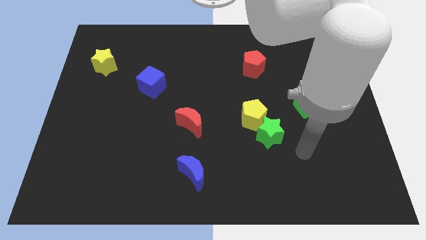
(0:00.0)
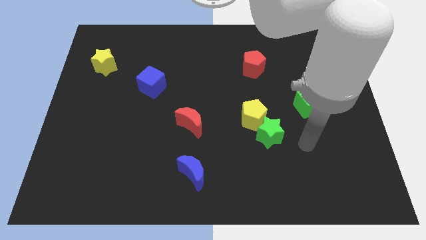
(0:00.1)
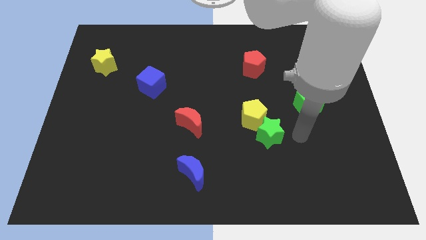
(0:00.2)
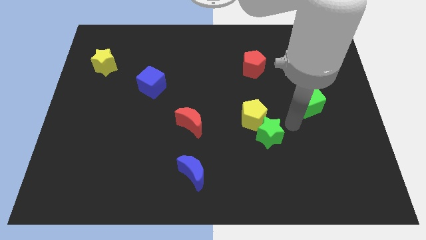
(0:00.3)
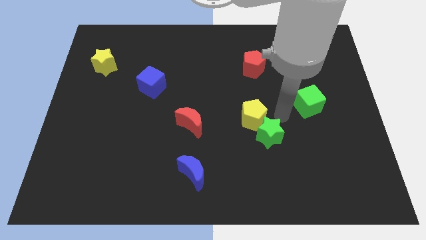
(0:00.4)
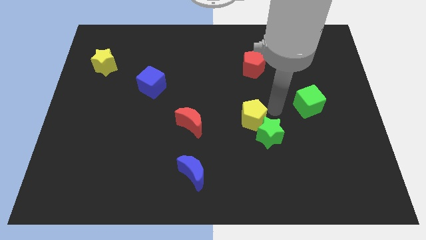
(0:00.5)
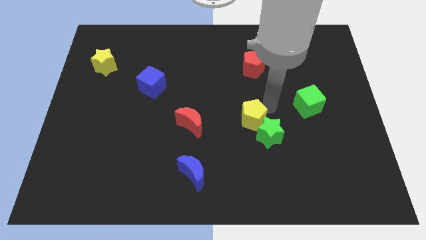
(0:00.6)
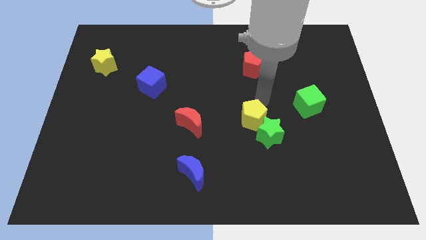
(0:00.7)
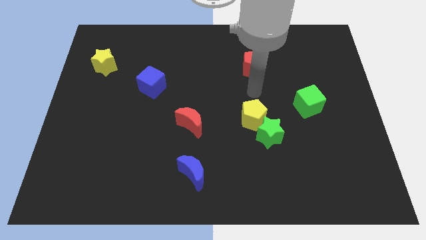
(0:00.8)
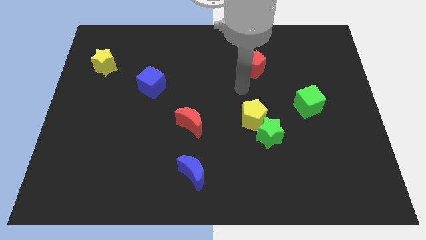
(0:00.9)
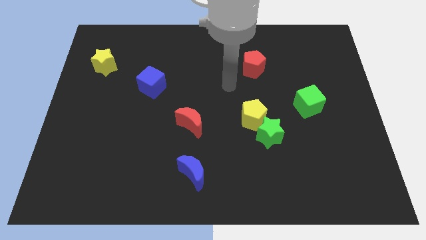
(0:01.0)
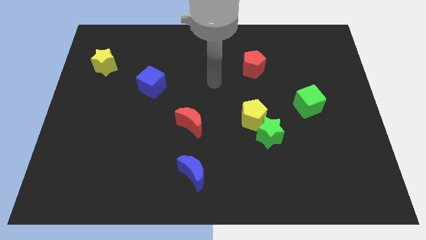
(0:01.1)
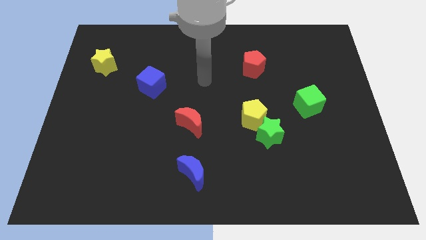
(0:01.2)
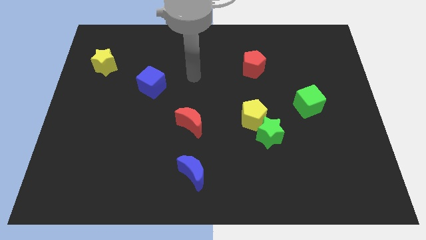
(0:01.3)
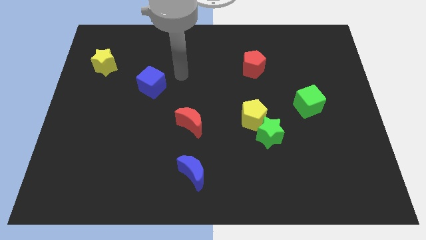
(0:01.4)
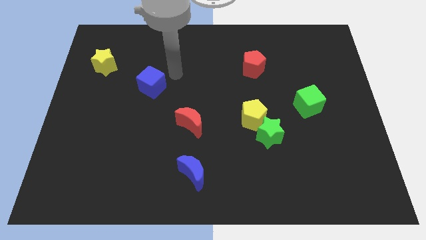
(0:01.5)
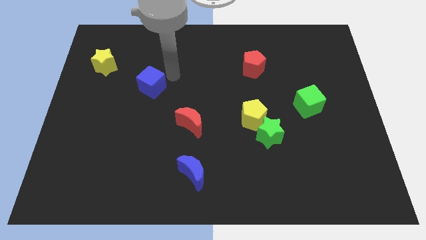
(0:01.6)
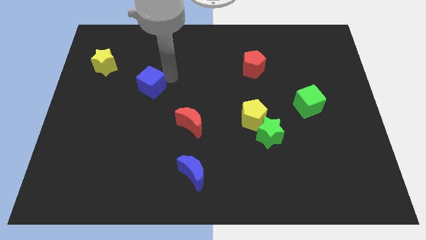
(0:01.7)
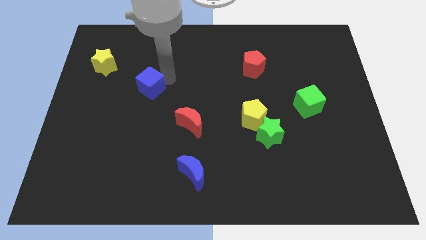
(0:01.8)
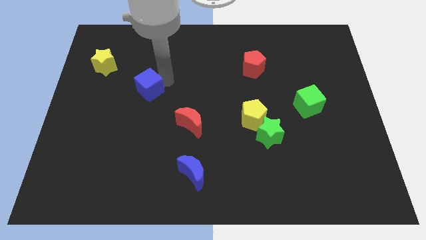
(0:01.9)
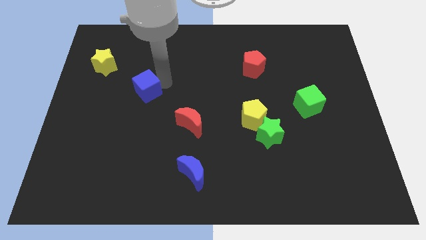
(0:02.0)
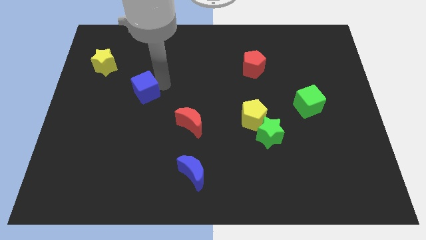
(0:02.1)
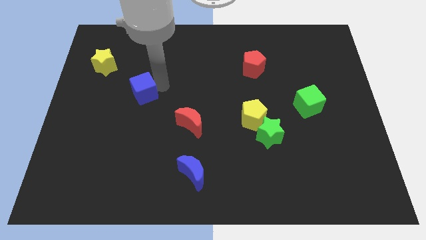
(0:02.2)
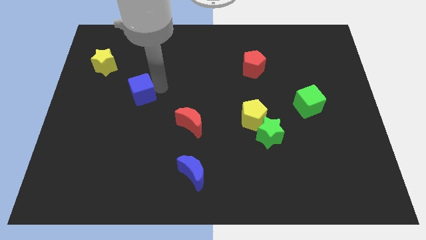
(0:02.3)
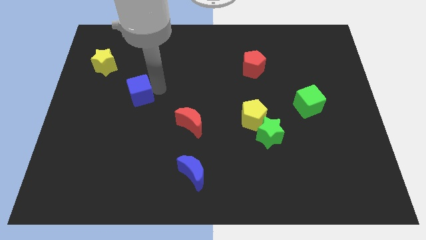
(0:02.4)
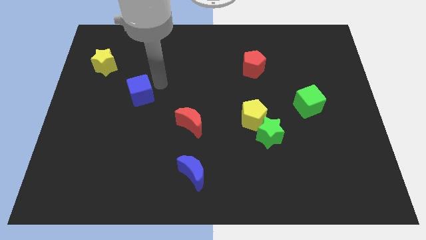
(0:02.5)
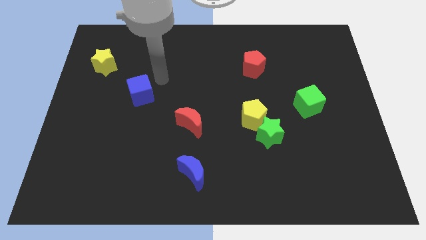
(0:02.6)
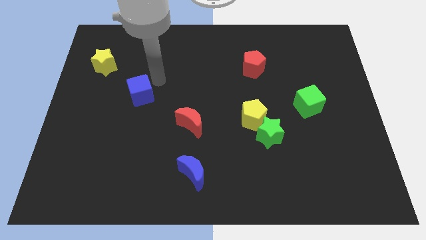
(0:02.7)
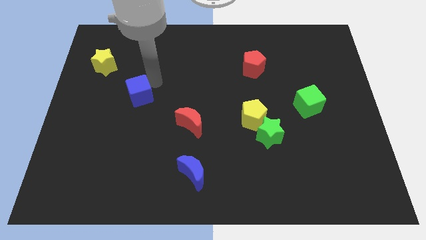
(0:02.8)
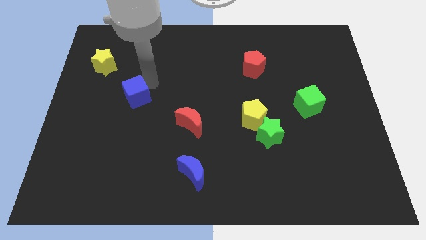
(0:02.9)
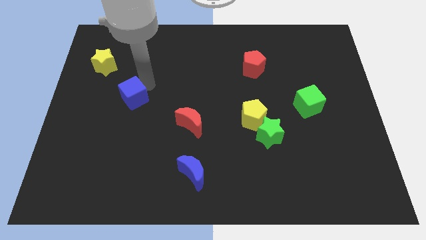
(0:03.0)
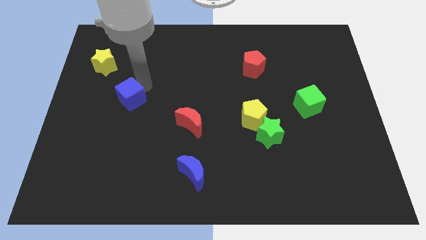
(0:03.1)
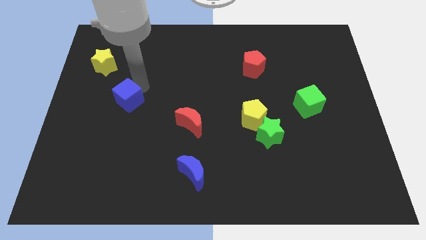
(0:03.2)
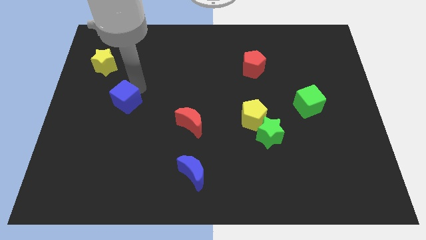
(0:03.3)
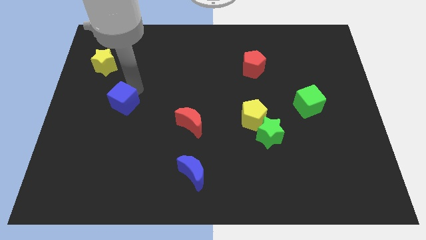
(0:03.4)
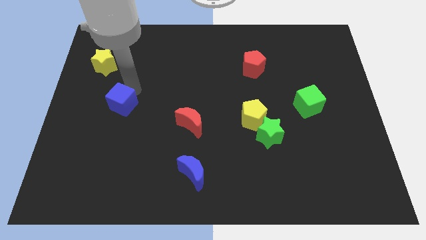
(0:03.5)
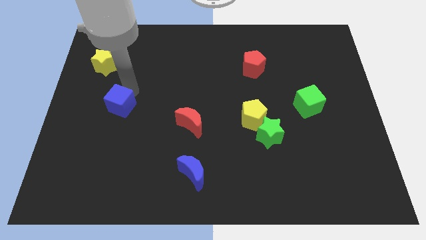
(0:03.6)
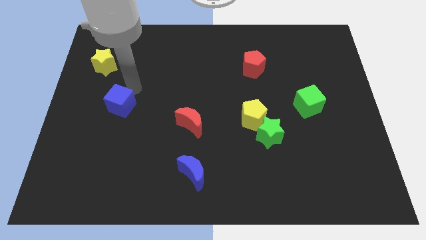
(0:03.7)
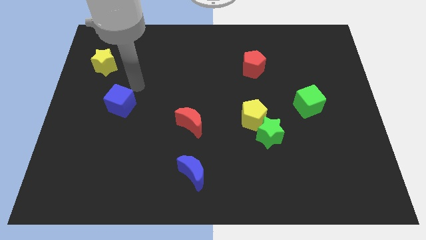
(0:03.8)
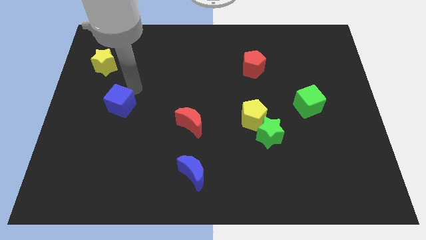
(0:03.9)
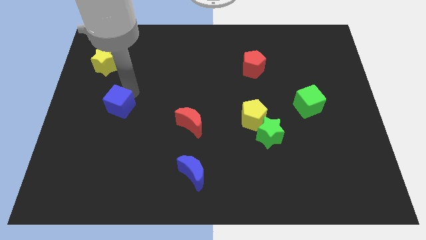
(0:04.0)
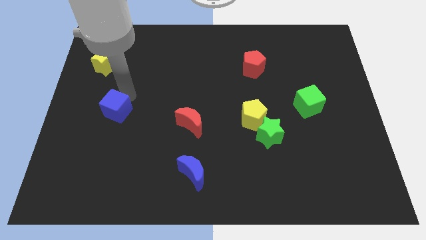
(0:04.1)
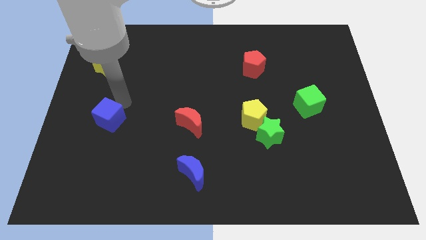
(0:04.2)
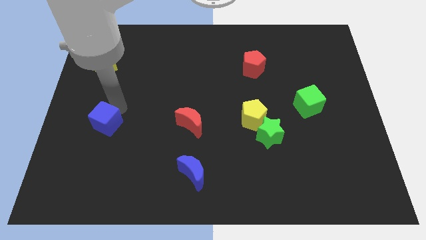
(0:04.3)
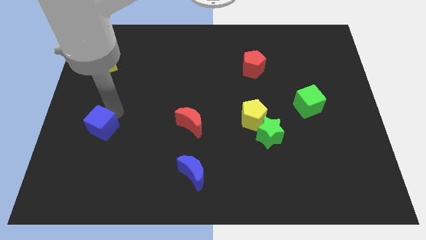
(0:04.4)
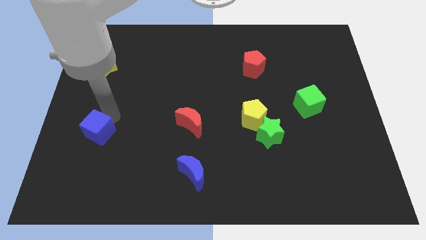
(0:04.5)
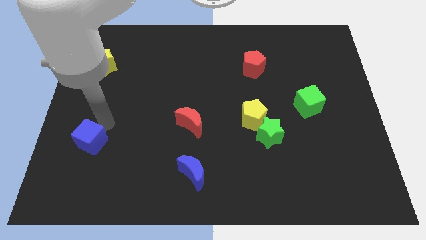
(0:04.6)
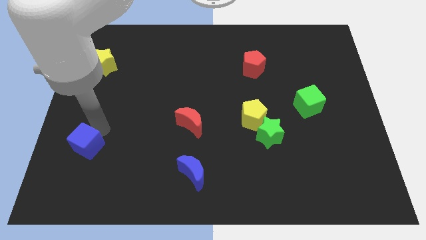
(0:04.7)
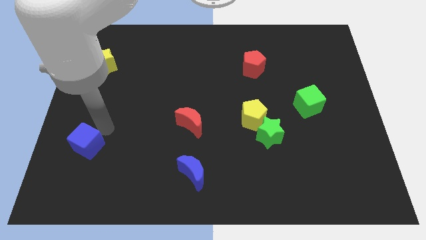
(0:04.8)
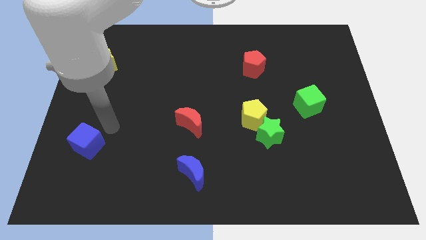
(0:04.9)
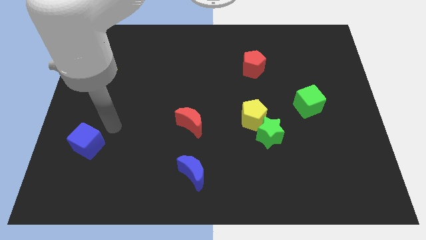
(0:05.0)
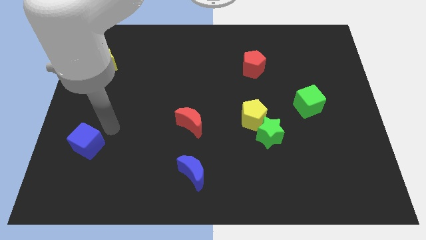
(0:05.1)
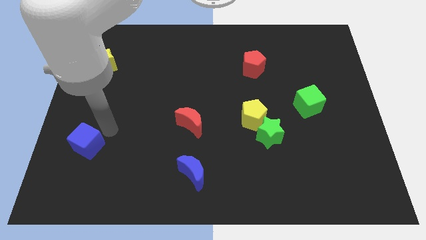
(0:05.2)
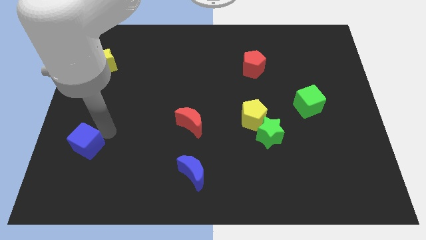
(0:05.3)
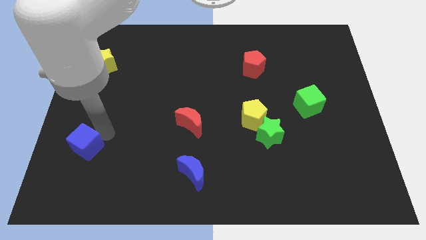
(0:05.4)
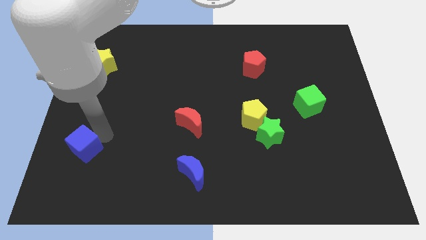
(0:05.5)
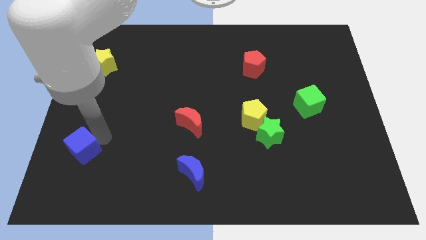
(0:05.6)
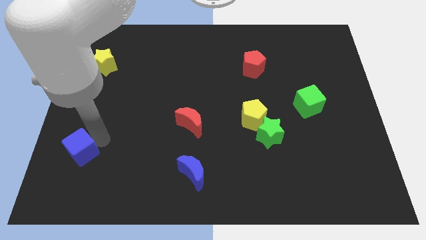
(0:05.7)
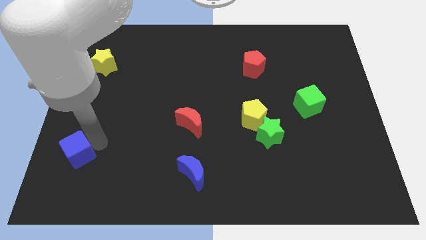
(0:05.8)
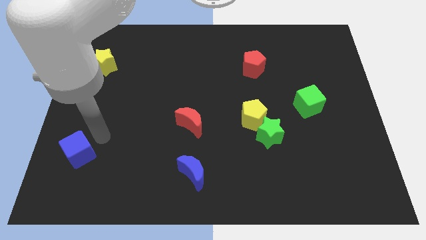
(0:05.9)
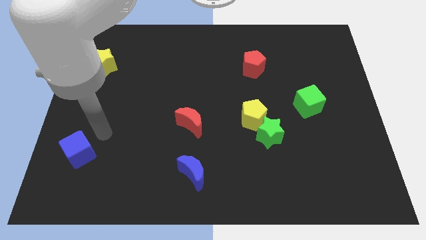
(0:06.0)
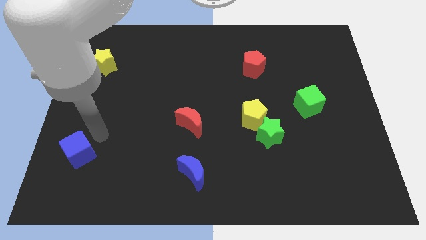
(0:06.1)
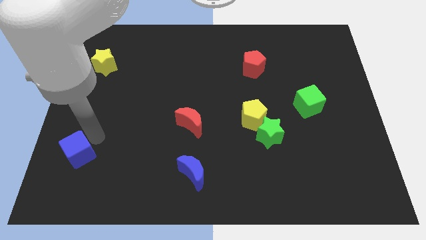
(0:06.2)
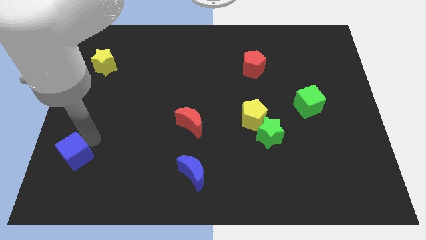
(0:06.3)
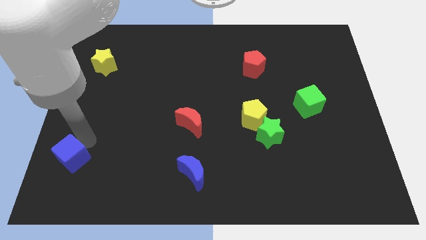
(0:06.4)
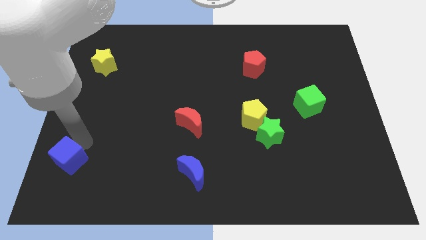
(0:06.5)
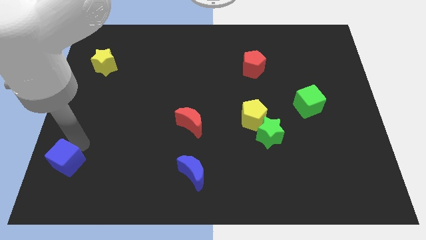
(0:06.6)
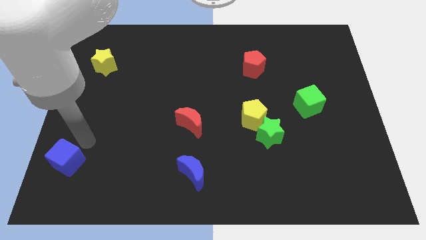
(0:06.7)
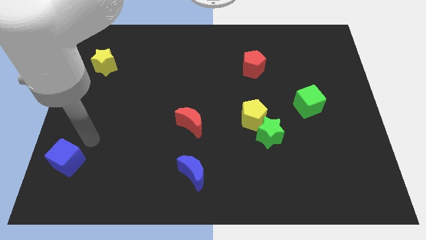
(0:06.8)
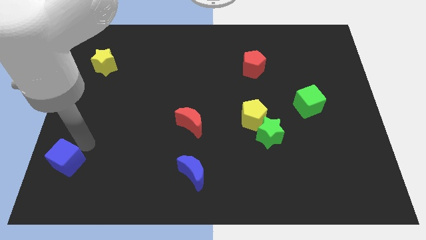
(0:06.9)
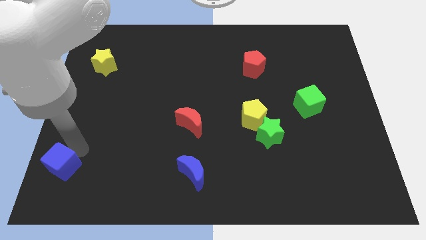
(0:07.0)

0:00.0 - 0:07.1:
push the blue cube to the bottom left of the board
